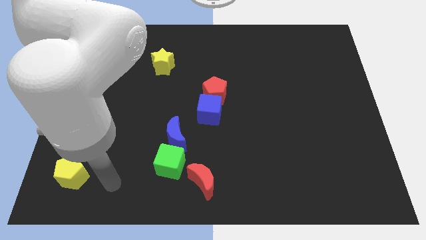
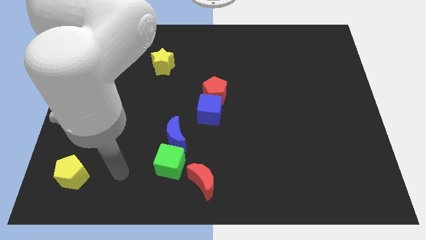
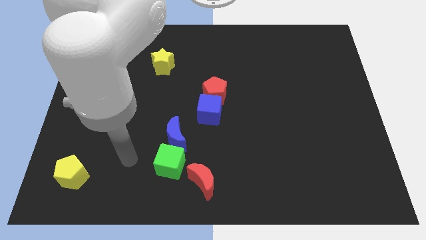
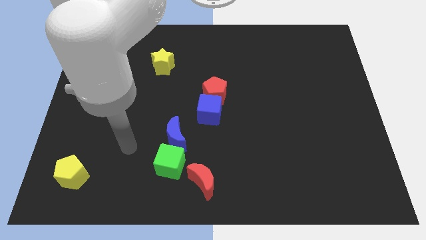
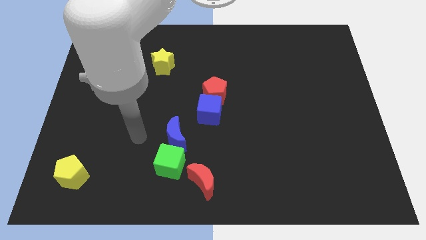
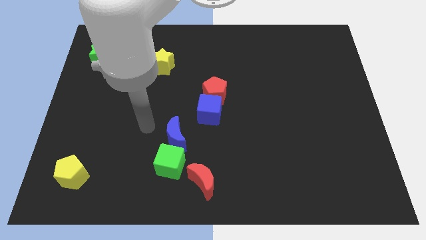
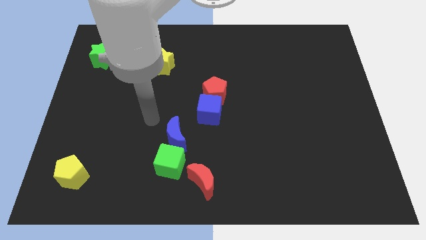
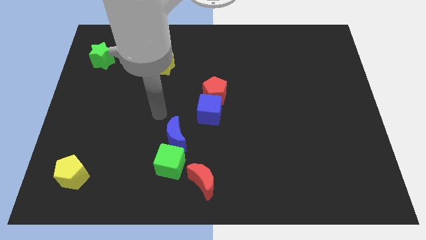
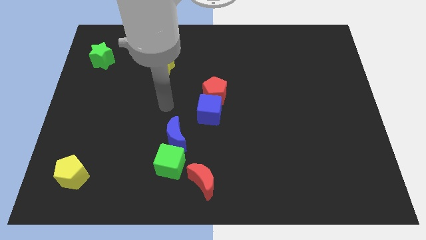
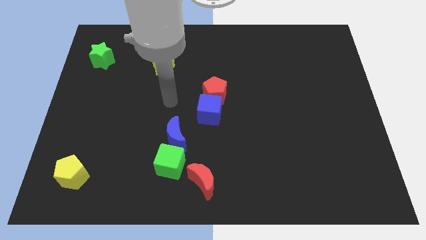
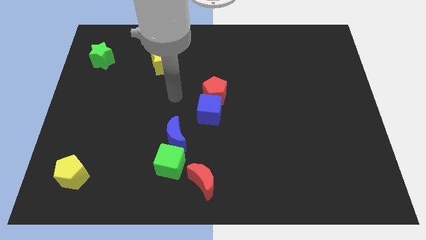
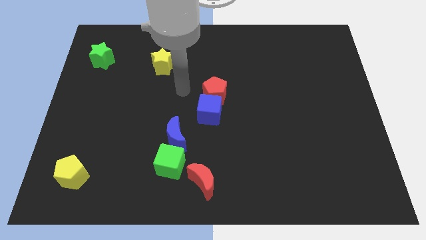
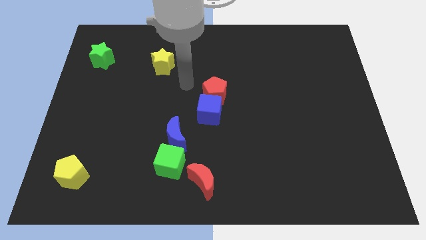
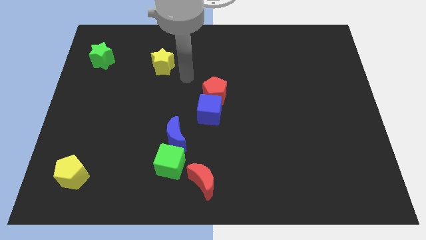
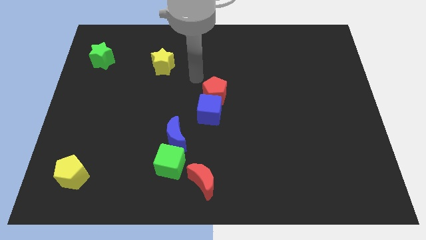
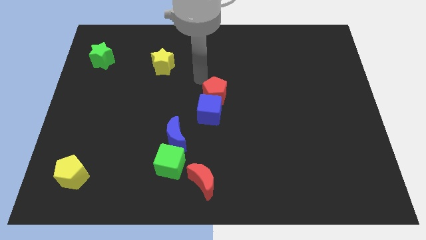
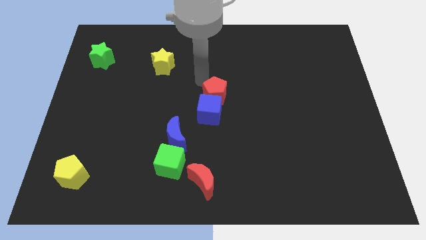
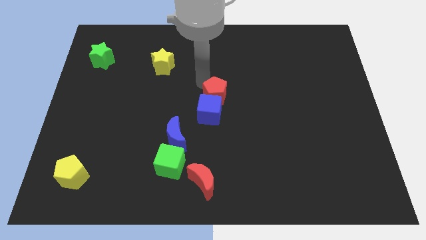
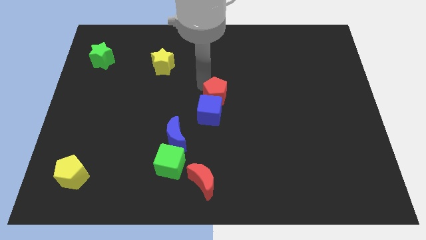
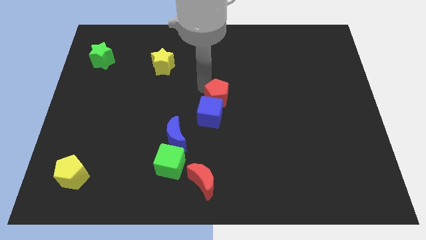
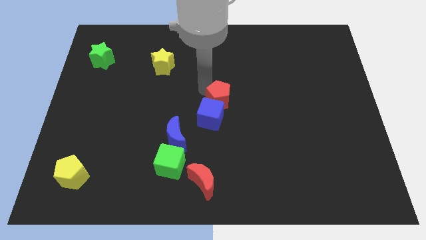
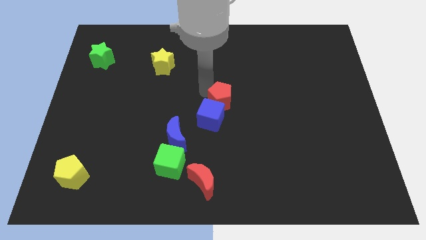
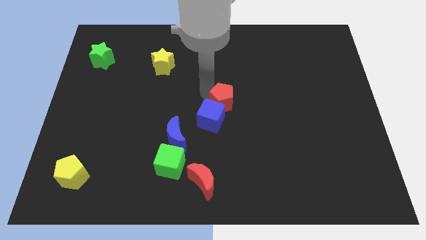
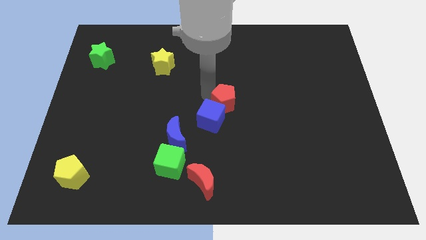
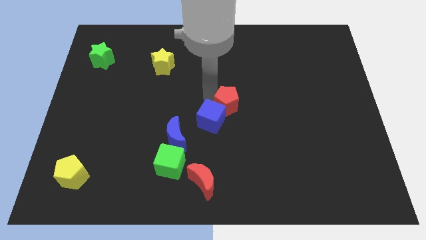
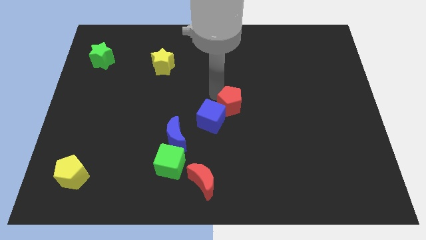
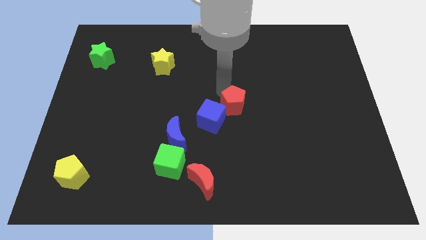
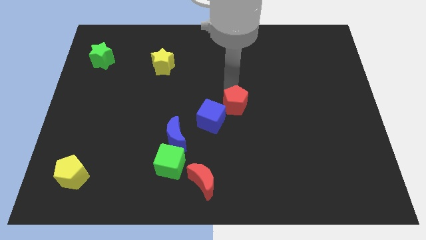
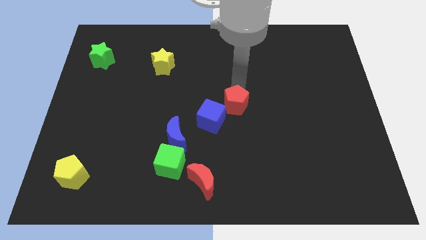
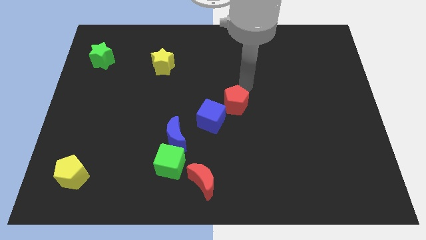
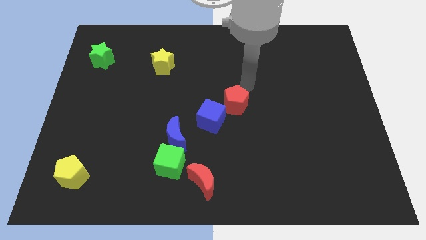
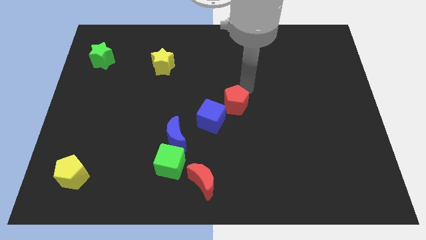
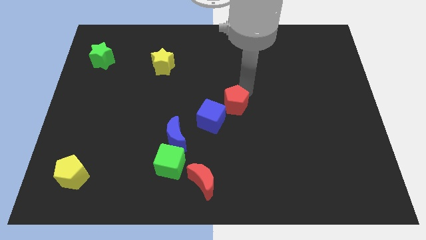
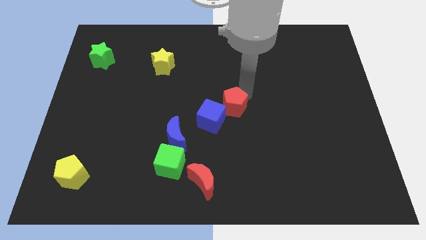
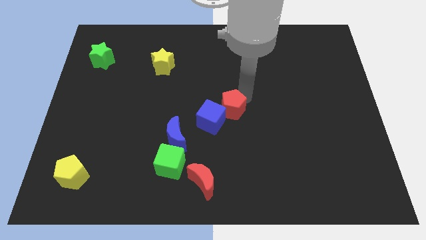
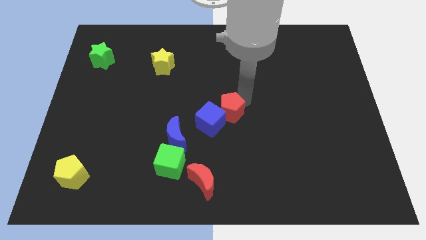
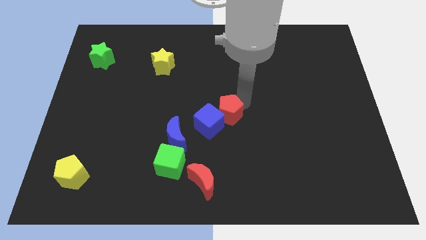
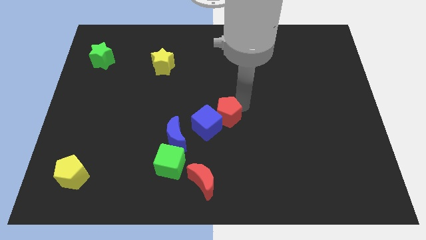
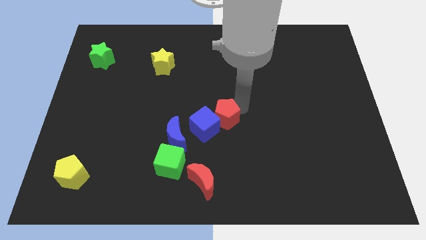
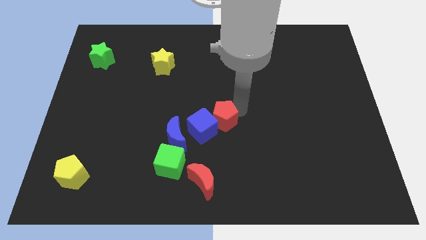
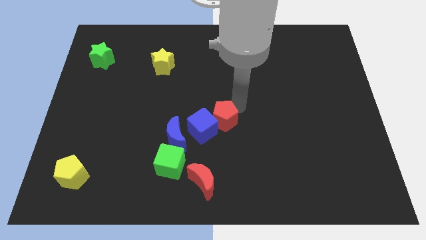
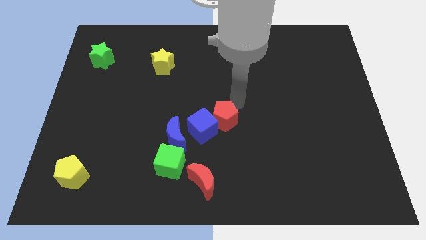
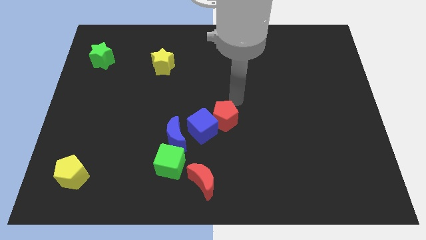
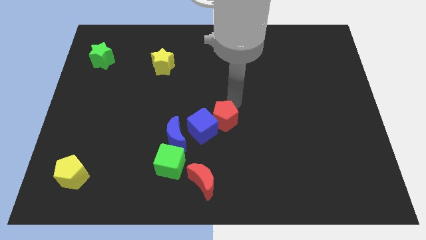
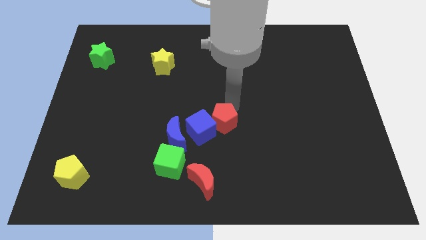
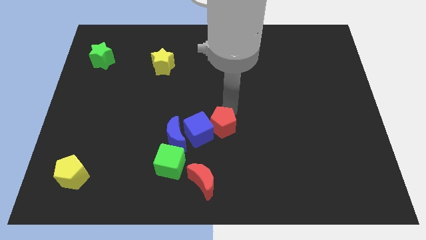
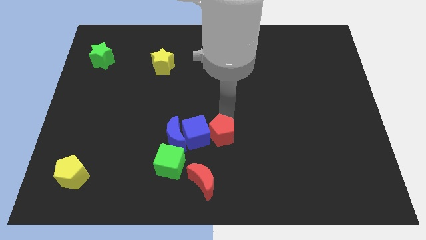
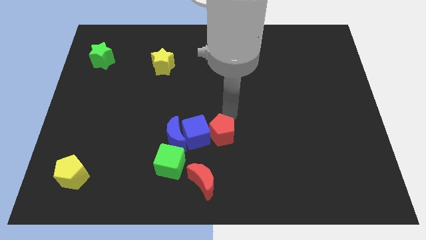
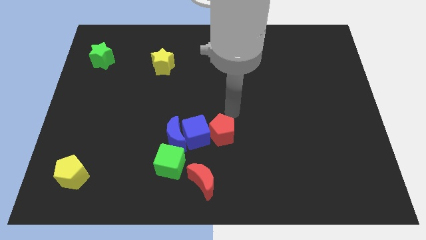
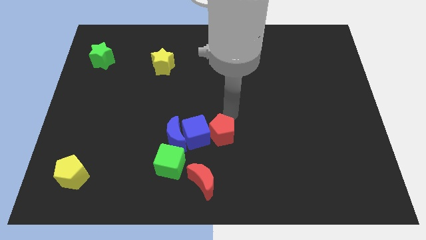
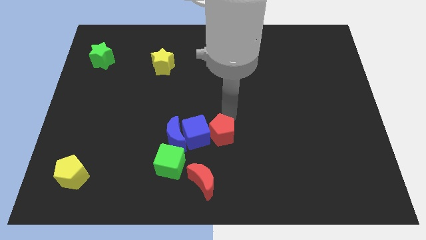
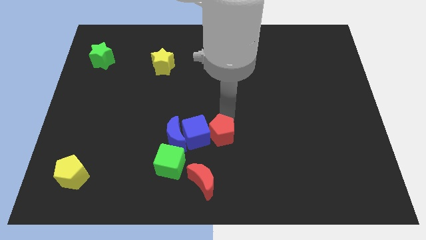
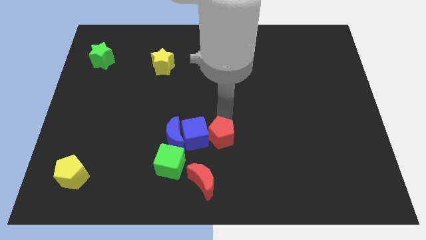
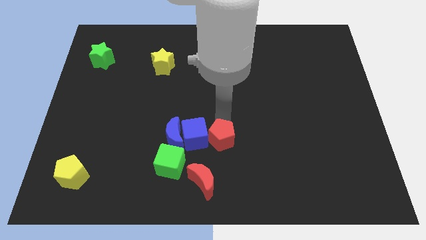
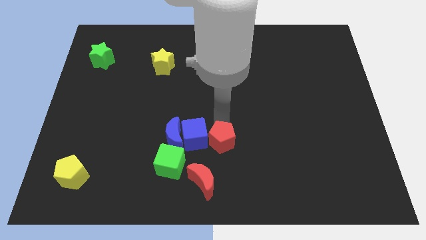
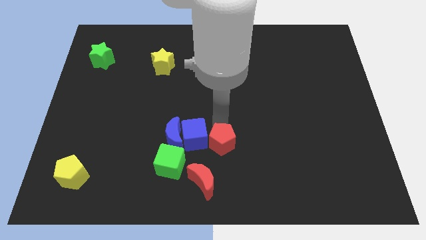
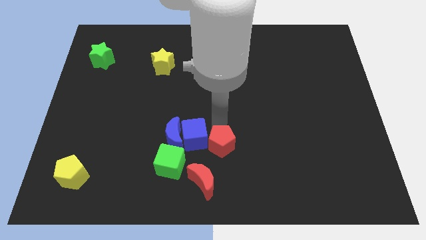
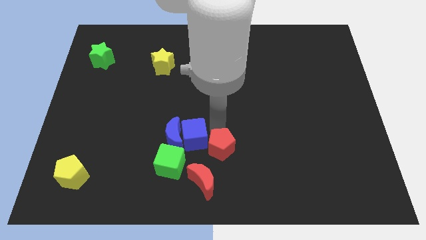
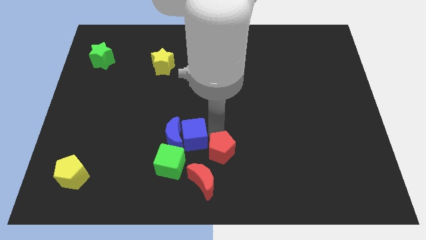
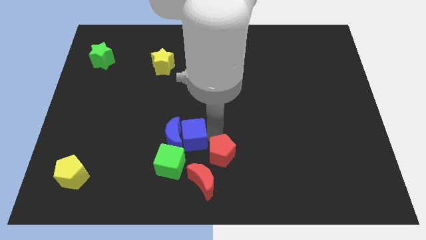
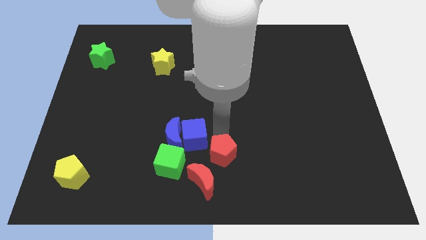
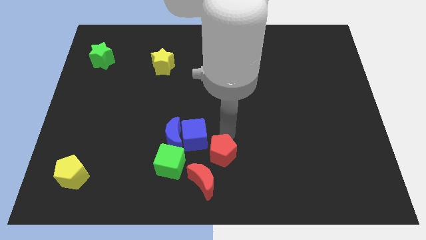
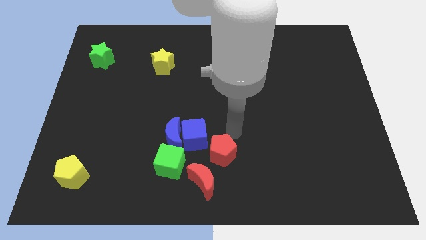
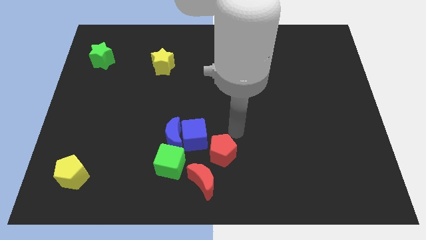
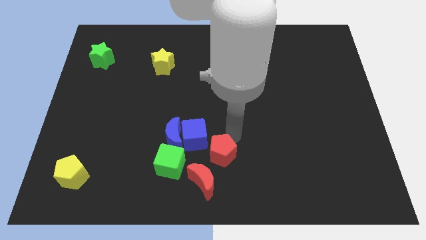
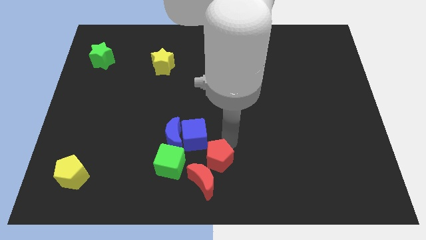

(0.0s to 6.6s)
move the red pentagon next to the red moon

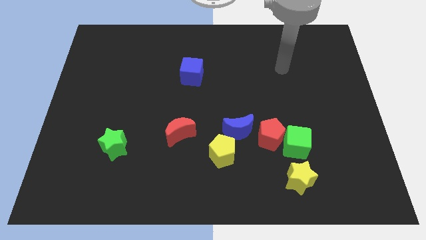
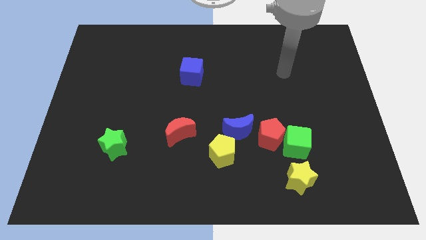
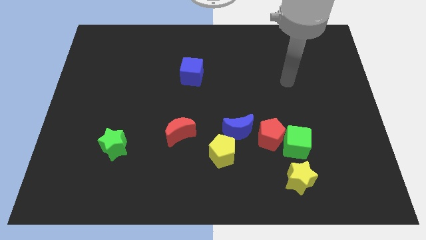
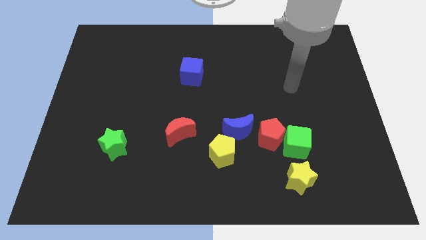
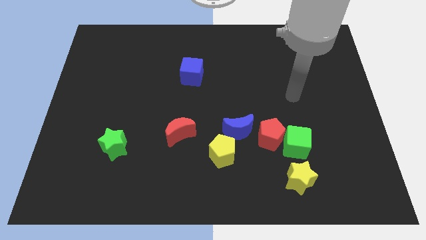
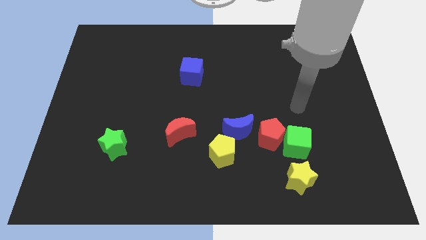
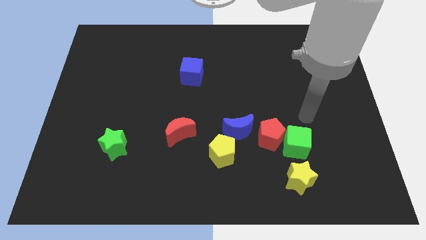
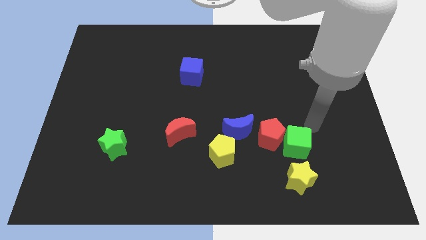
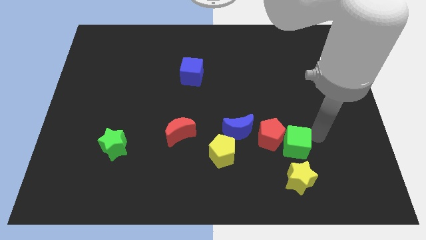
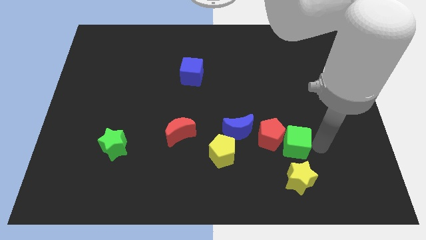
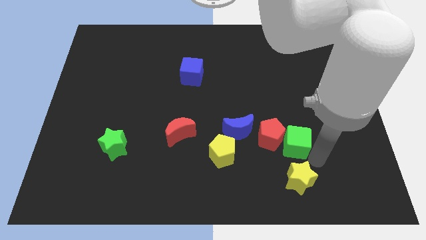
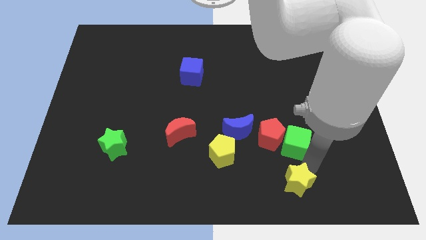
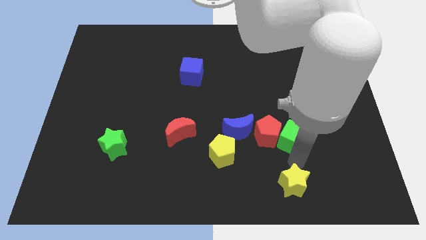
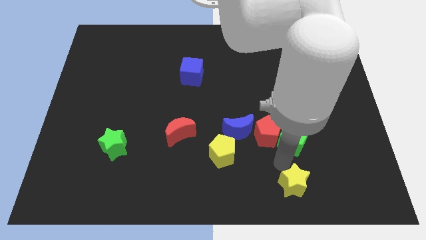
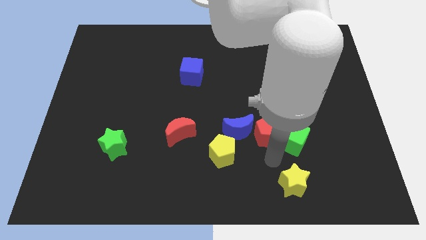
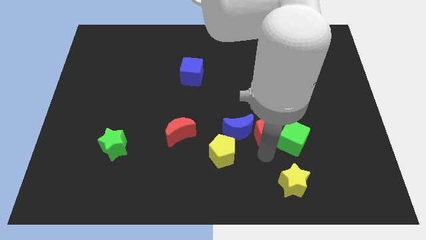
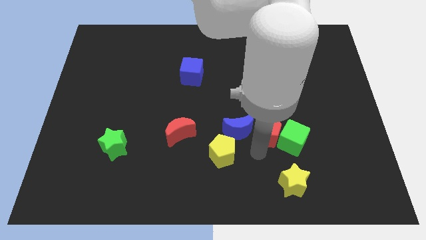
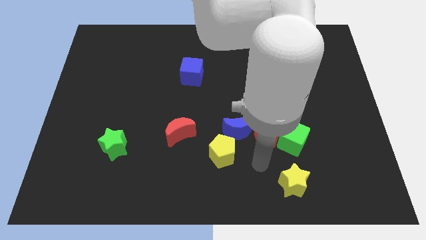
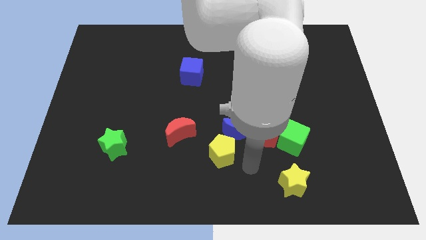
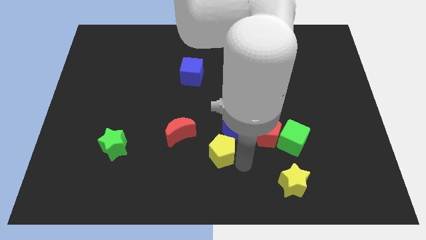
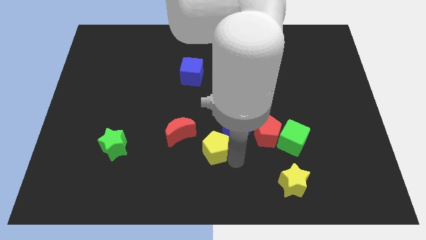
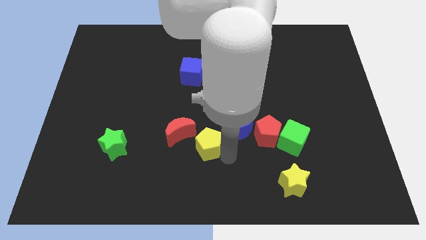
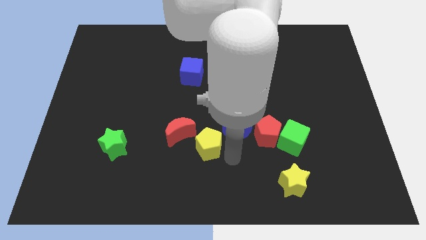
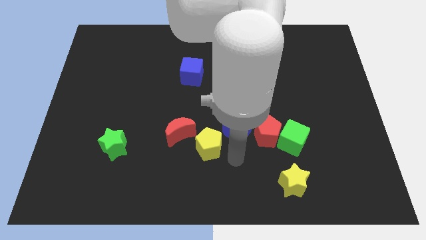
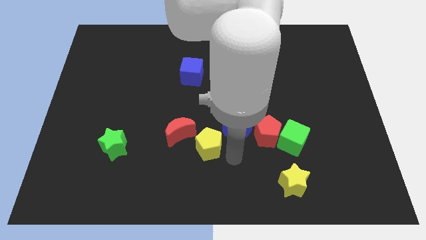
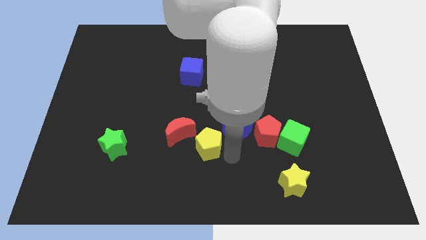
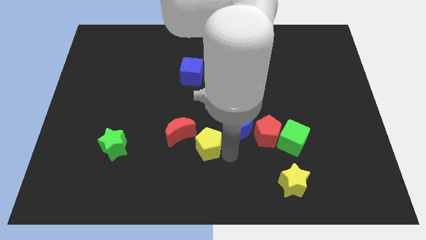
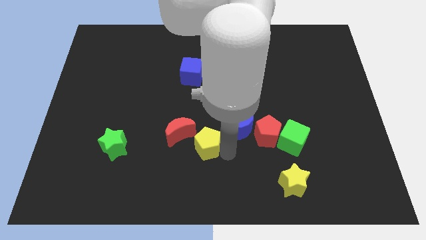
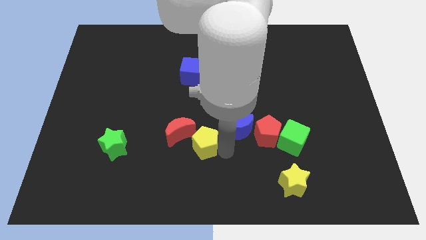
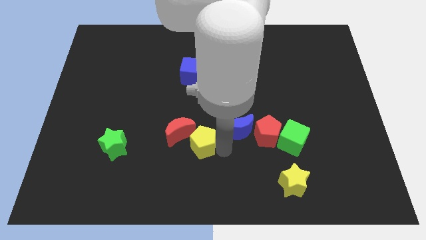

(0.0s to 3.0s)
slide the yellow pentagon to the red moon
